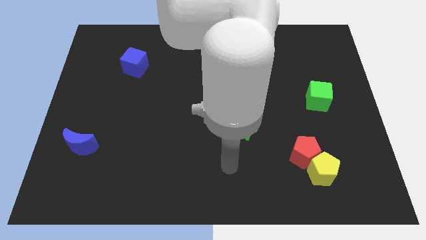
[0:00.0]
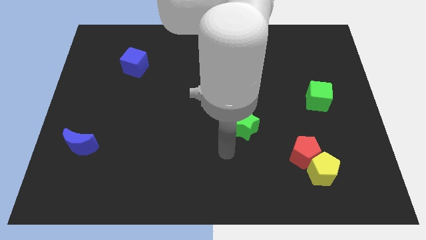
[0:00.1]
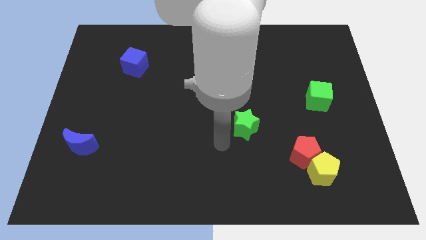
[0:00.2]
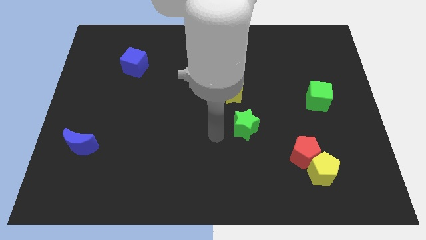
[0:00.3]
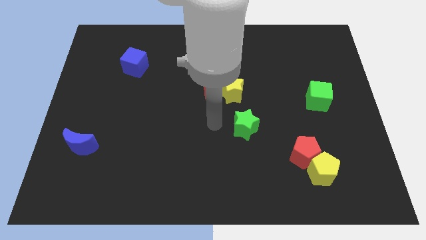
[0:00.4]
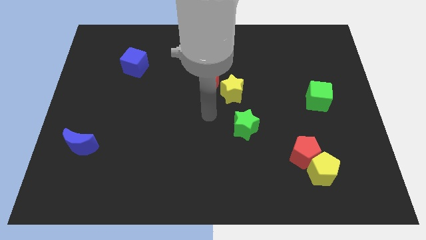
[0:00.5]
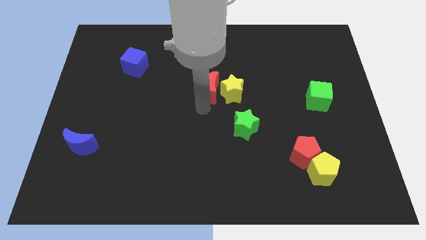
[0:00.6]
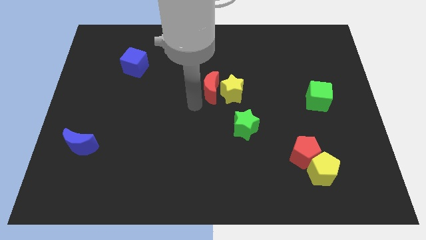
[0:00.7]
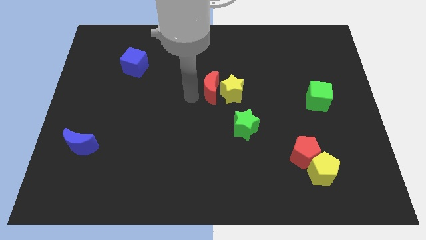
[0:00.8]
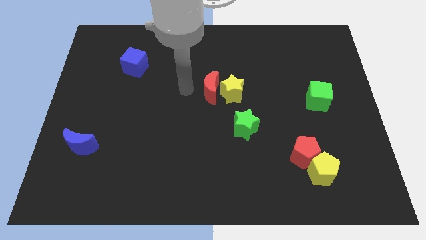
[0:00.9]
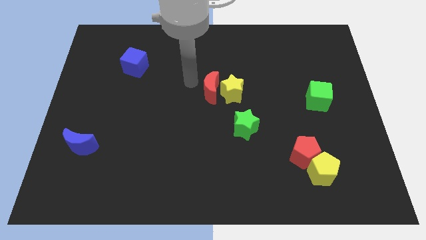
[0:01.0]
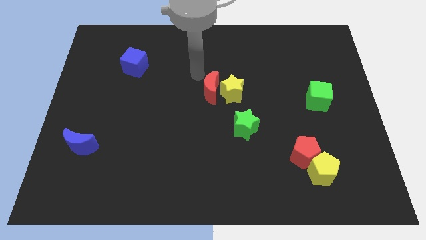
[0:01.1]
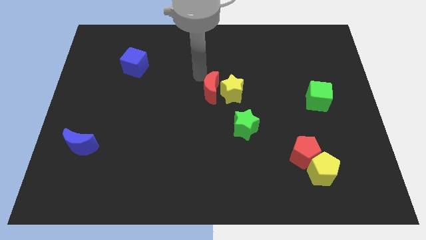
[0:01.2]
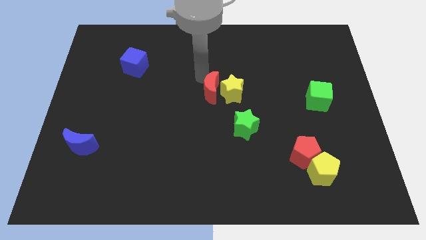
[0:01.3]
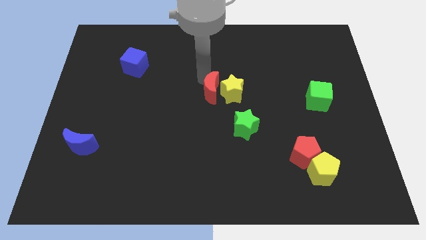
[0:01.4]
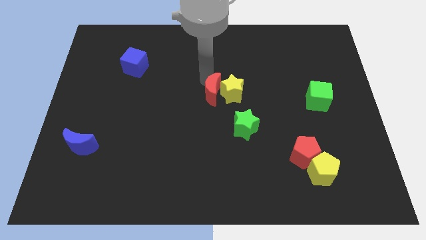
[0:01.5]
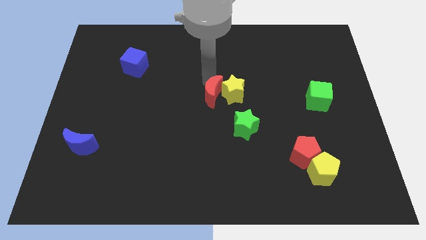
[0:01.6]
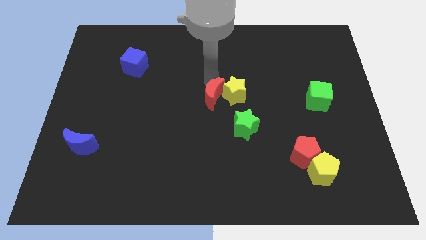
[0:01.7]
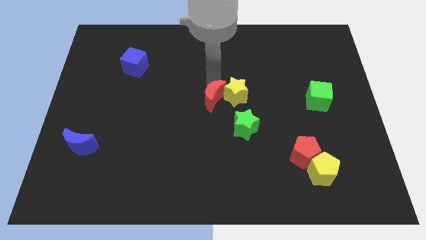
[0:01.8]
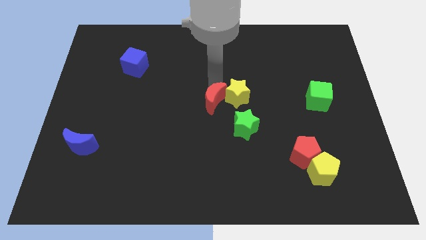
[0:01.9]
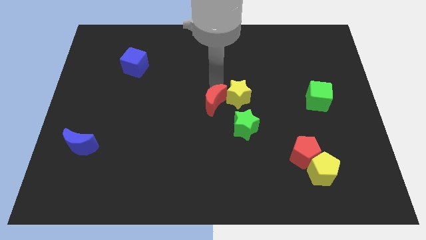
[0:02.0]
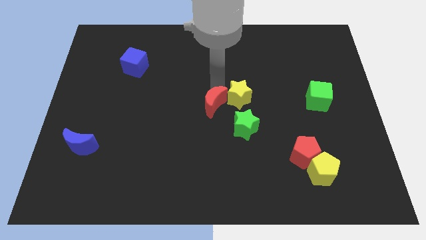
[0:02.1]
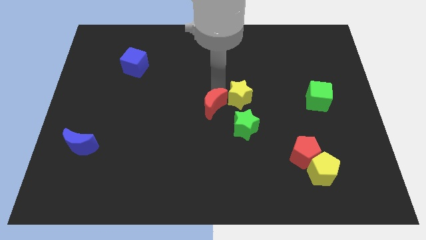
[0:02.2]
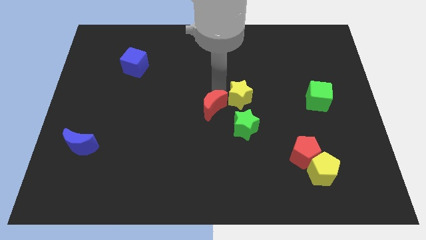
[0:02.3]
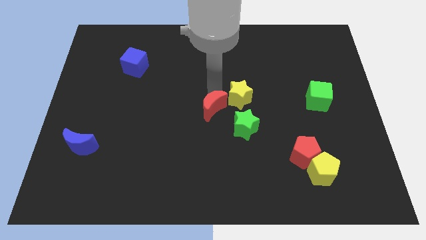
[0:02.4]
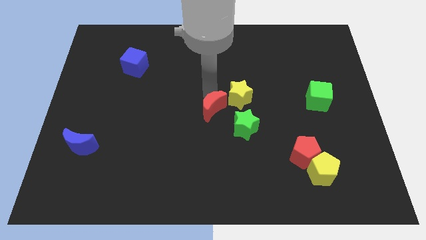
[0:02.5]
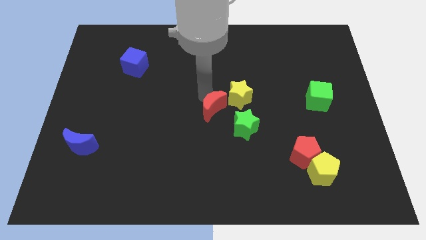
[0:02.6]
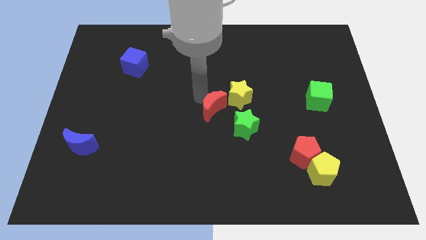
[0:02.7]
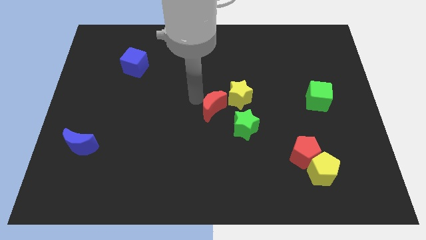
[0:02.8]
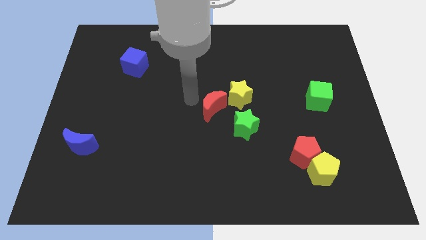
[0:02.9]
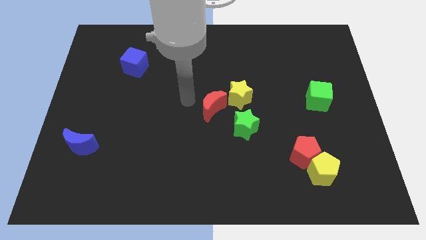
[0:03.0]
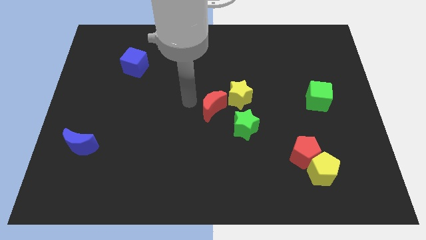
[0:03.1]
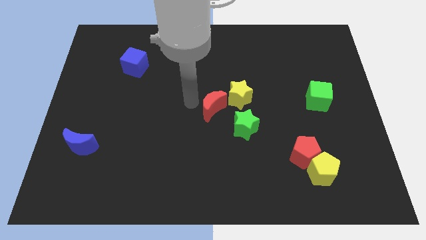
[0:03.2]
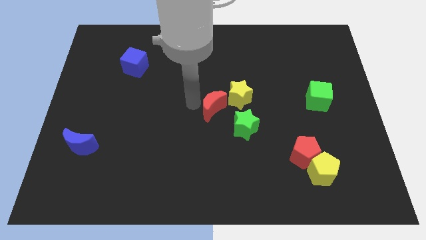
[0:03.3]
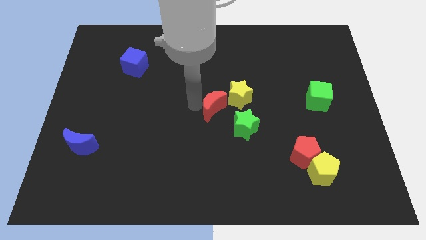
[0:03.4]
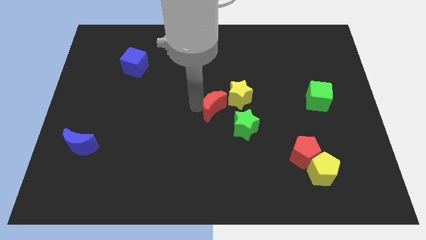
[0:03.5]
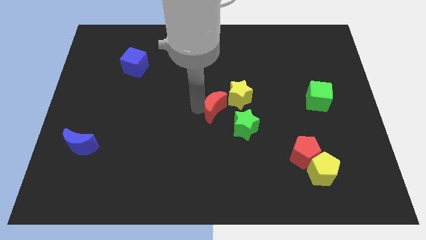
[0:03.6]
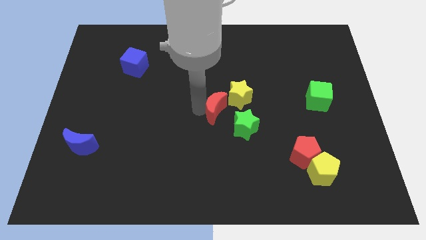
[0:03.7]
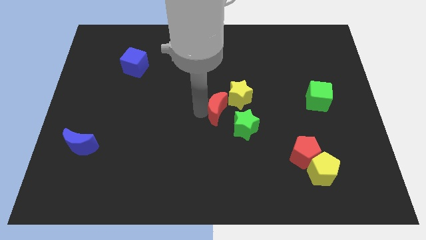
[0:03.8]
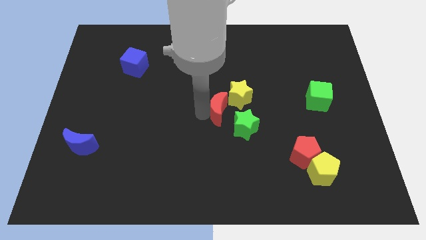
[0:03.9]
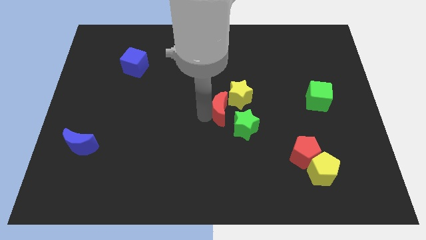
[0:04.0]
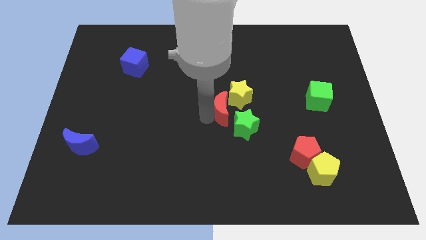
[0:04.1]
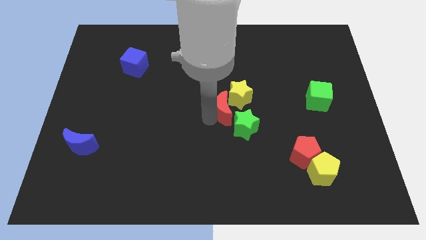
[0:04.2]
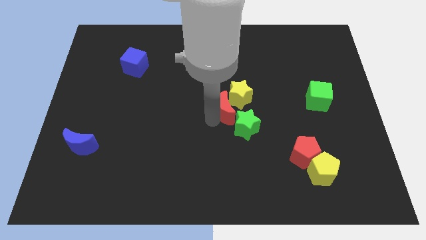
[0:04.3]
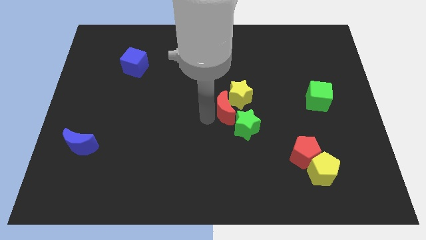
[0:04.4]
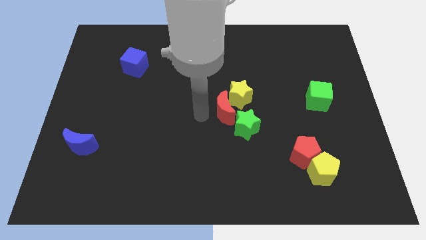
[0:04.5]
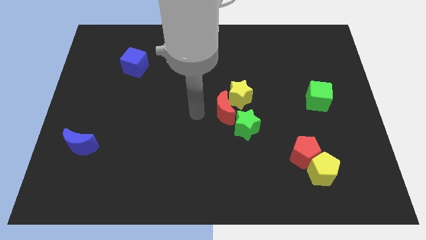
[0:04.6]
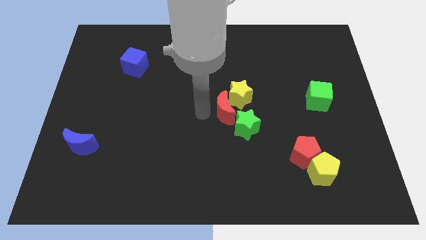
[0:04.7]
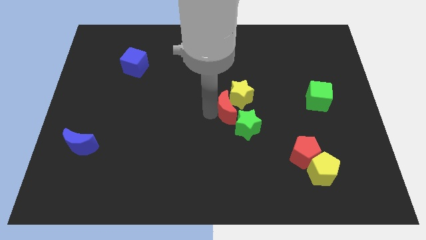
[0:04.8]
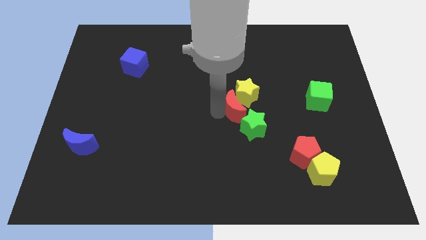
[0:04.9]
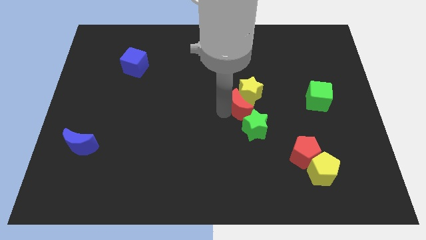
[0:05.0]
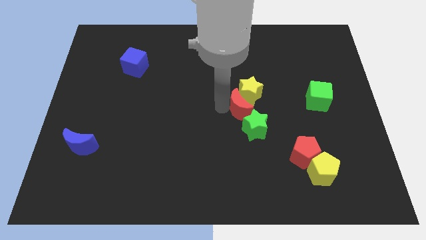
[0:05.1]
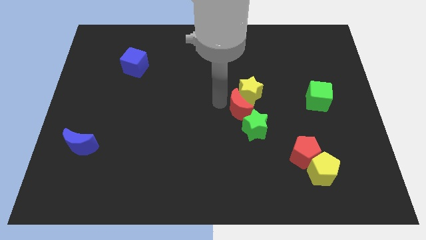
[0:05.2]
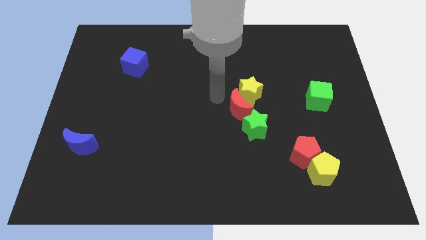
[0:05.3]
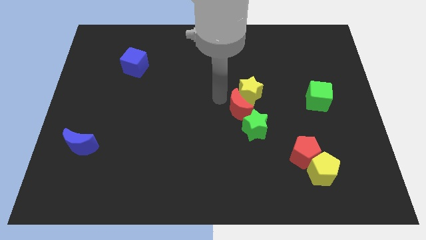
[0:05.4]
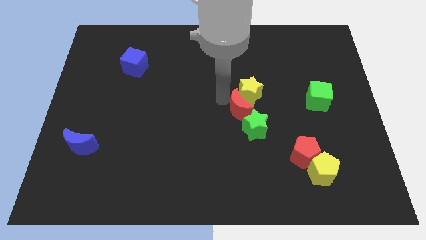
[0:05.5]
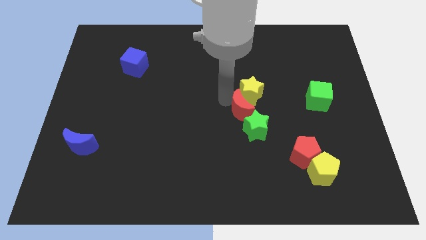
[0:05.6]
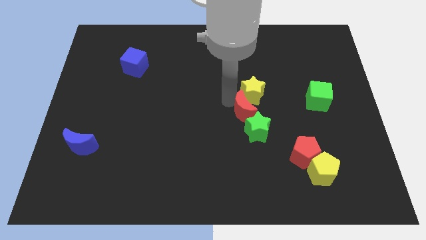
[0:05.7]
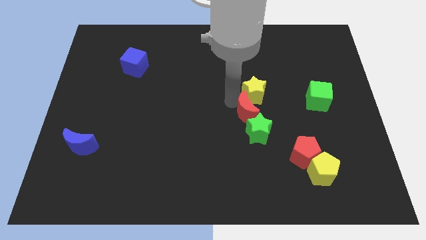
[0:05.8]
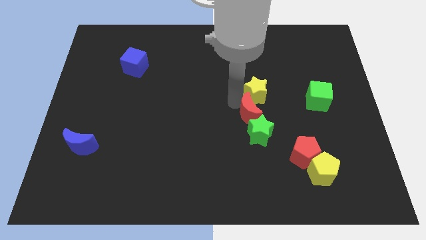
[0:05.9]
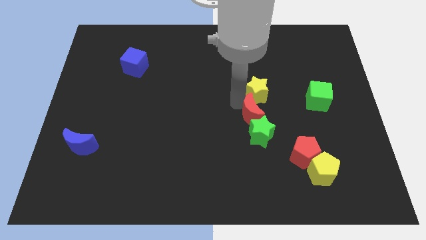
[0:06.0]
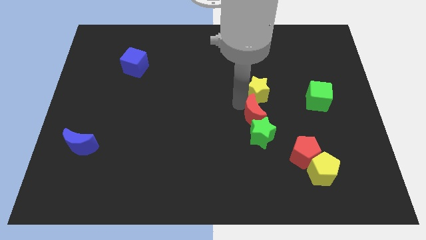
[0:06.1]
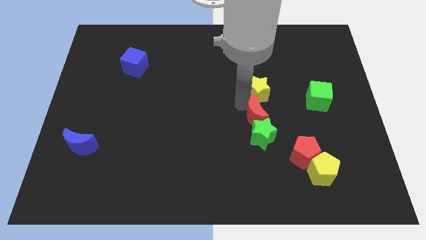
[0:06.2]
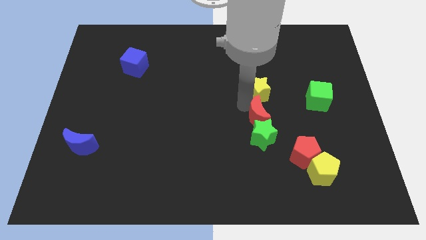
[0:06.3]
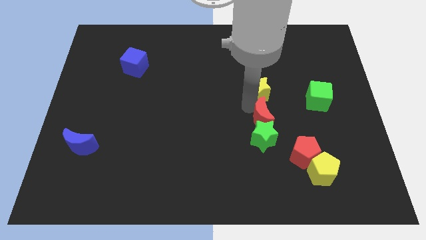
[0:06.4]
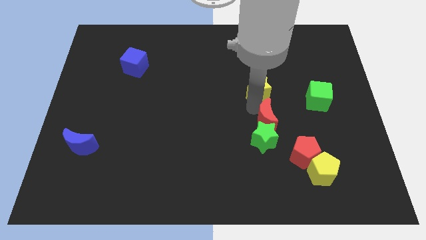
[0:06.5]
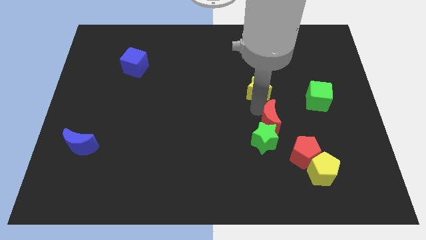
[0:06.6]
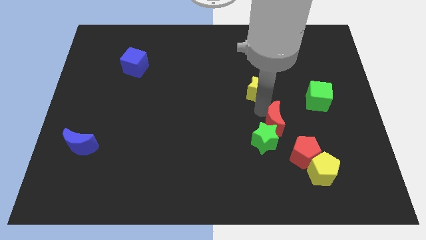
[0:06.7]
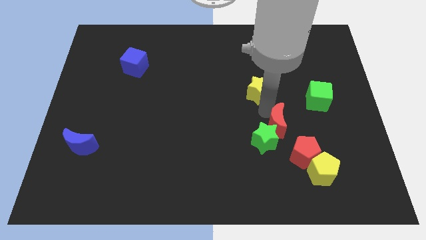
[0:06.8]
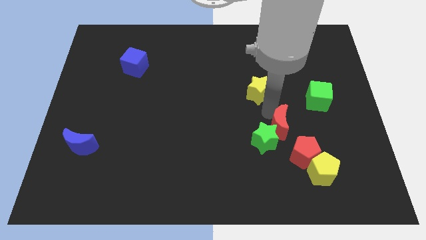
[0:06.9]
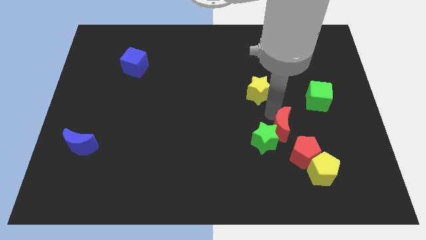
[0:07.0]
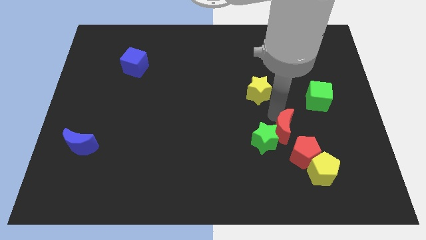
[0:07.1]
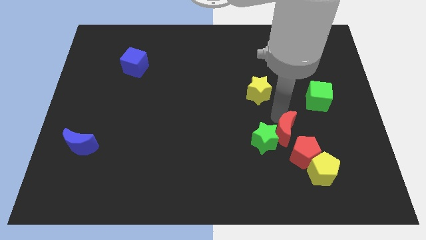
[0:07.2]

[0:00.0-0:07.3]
move the red moon to the top left of the yellow pentagon

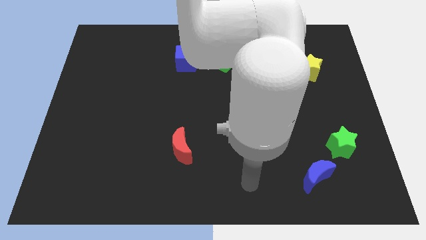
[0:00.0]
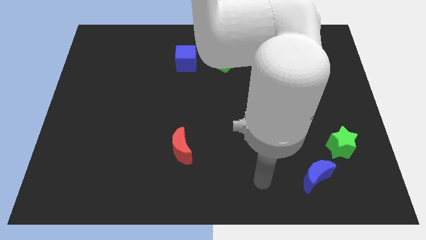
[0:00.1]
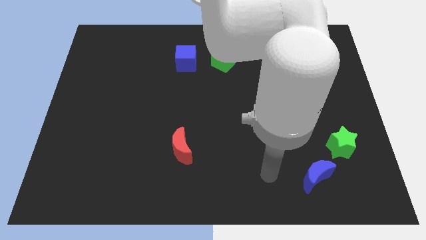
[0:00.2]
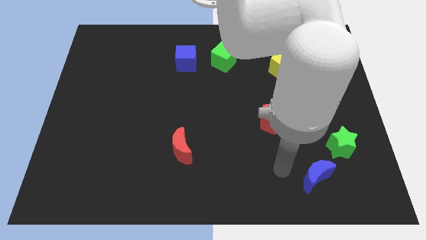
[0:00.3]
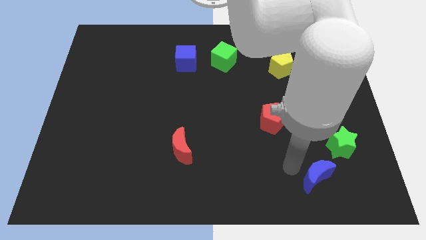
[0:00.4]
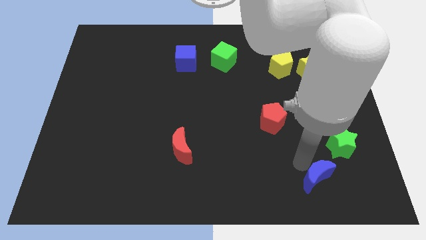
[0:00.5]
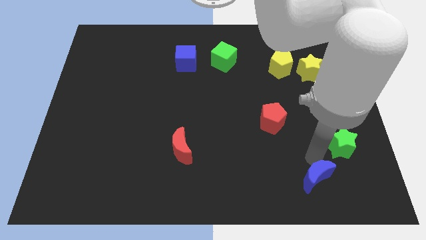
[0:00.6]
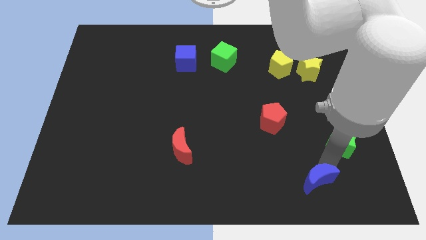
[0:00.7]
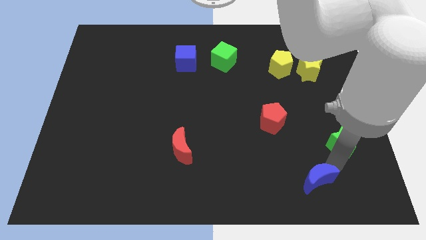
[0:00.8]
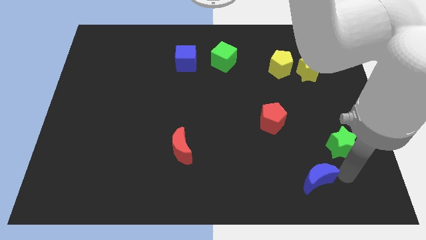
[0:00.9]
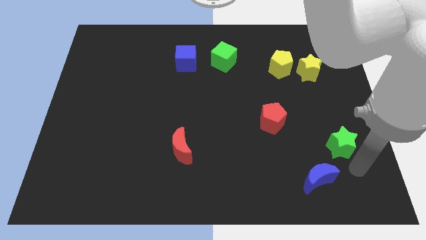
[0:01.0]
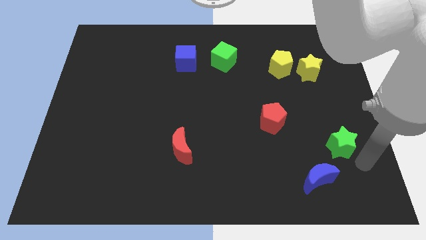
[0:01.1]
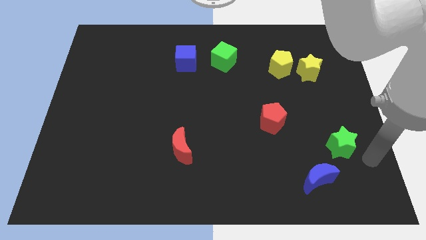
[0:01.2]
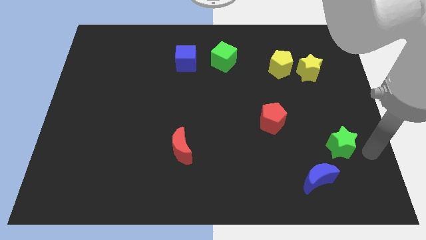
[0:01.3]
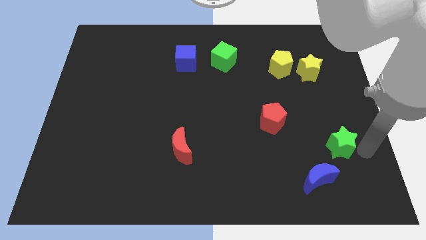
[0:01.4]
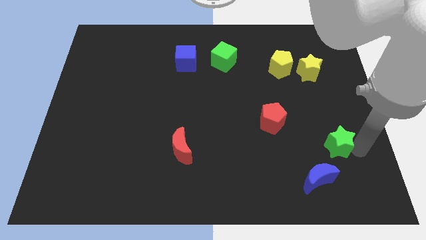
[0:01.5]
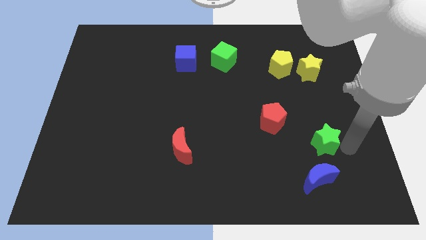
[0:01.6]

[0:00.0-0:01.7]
push the green star to the bottom right of the red pentagon
